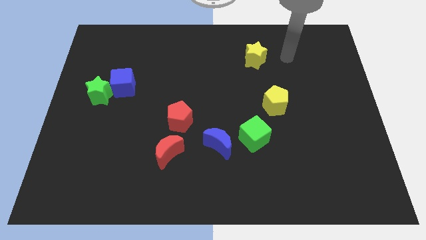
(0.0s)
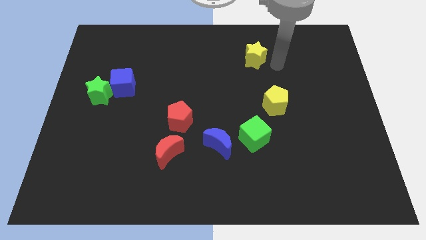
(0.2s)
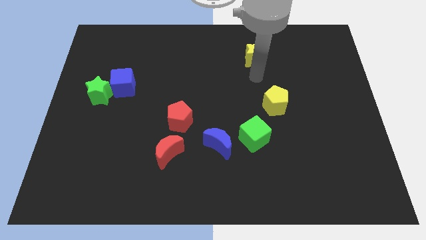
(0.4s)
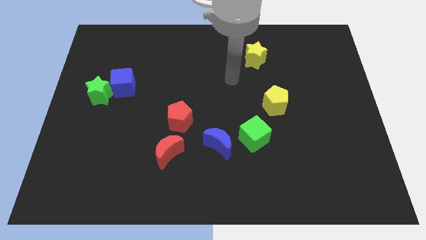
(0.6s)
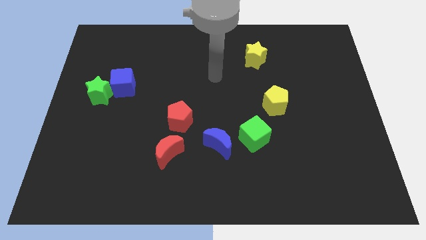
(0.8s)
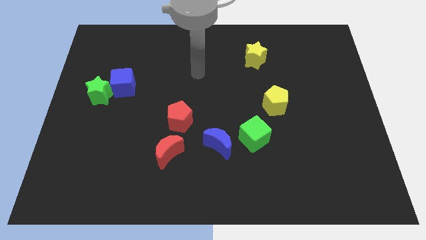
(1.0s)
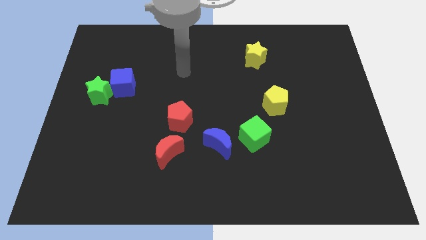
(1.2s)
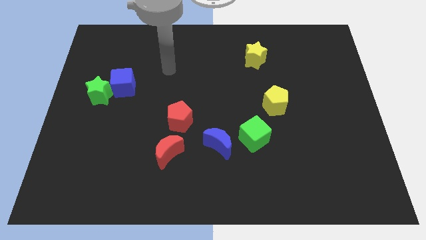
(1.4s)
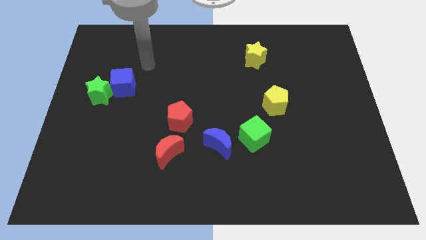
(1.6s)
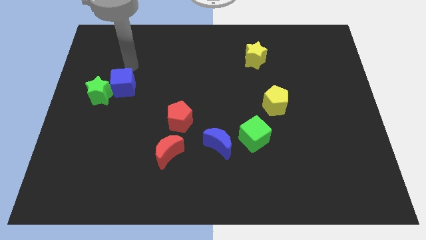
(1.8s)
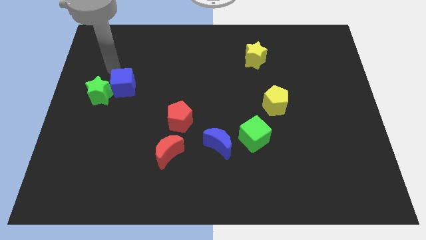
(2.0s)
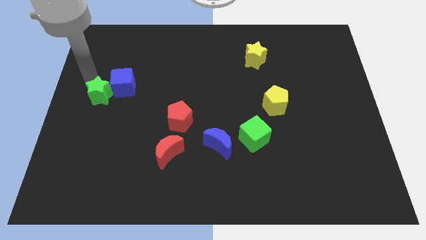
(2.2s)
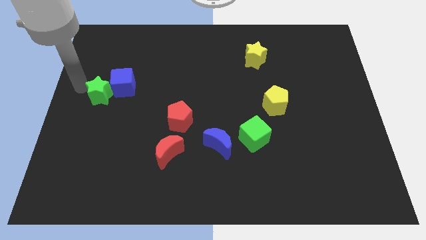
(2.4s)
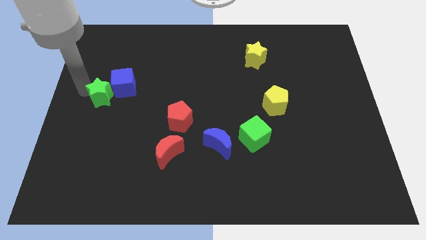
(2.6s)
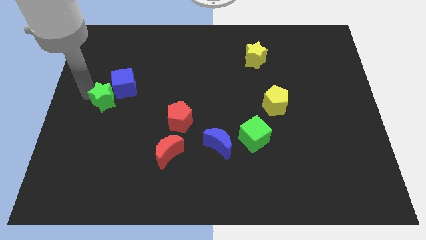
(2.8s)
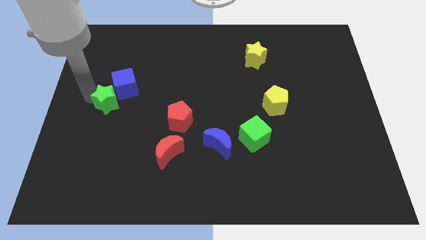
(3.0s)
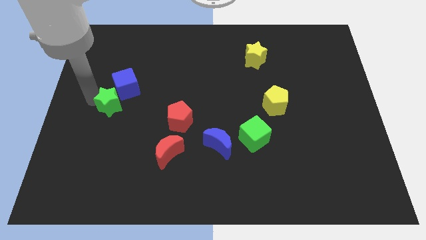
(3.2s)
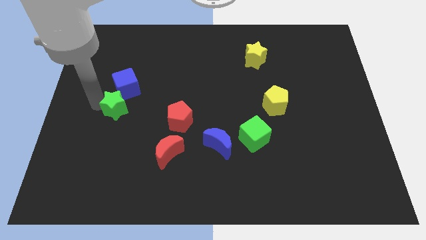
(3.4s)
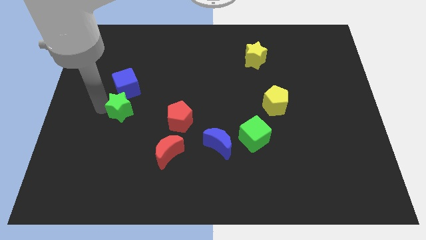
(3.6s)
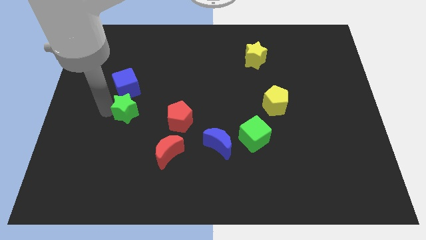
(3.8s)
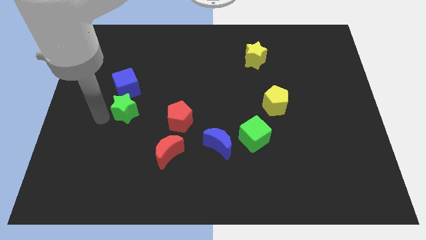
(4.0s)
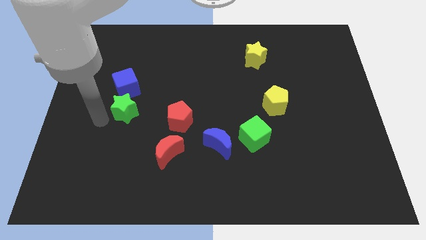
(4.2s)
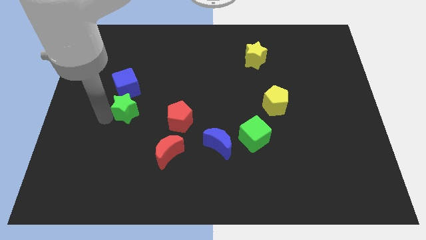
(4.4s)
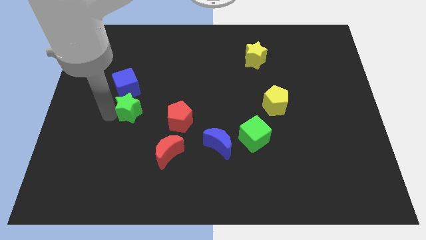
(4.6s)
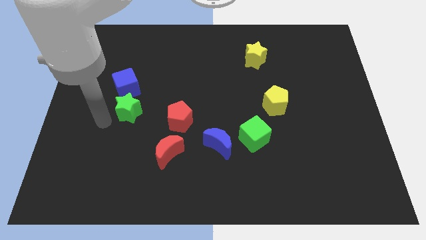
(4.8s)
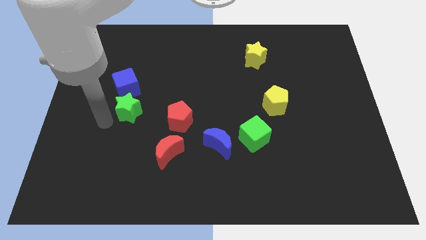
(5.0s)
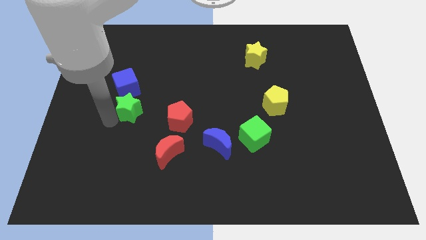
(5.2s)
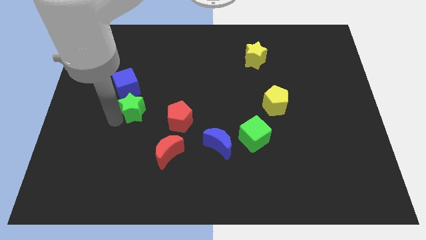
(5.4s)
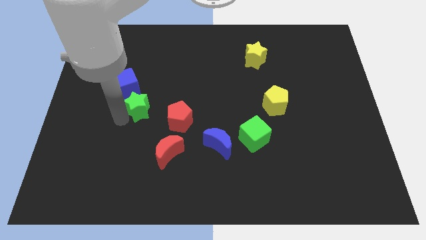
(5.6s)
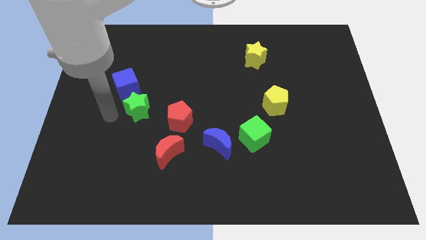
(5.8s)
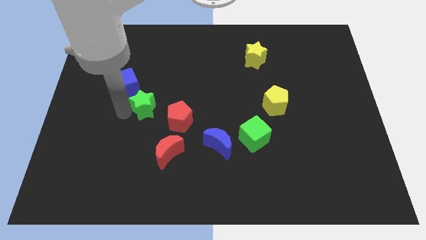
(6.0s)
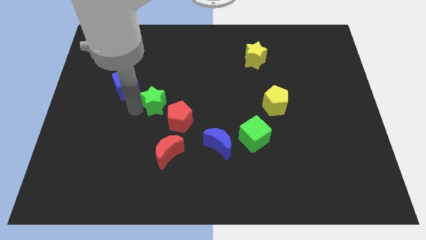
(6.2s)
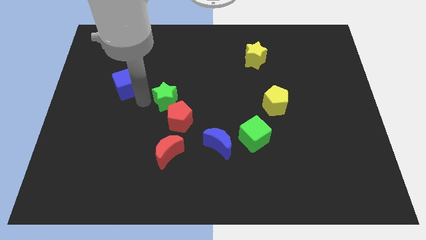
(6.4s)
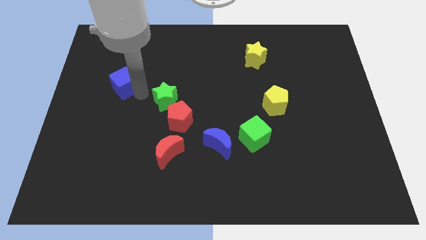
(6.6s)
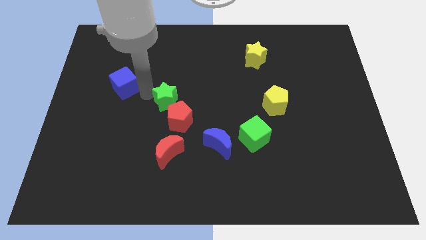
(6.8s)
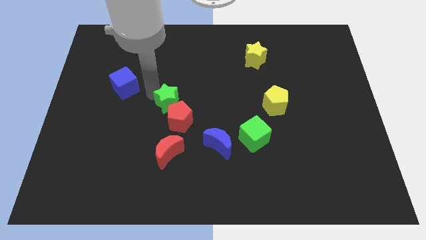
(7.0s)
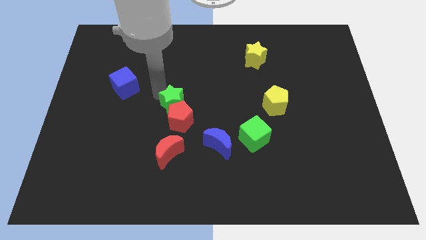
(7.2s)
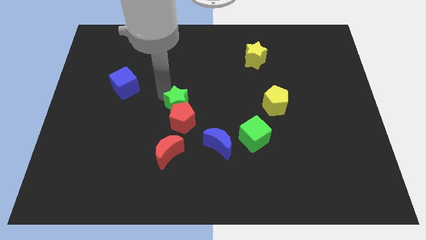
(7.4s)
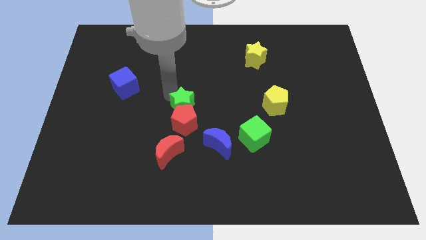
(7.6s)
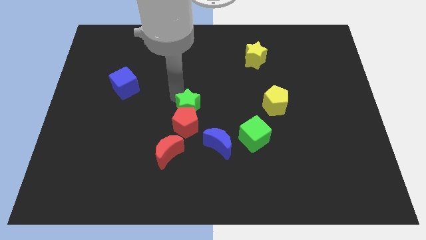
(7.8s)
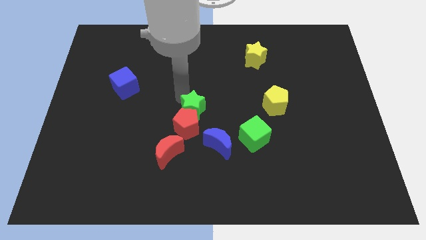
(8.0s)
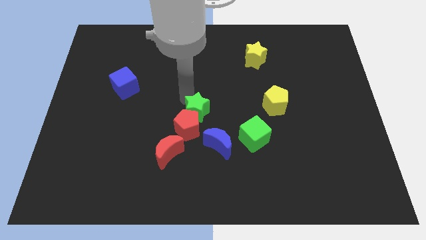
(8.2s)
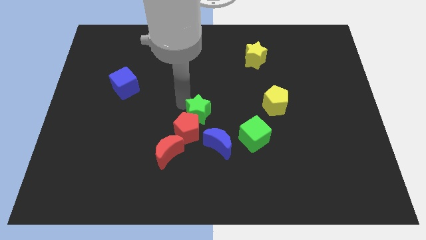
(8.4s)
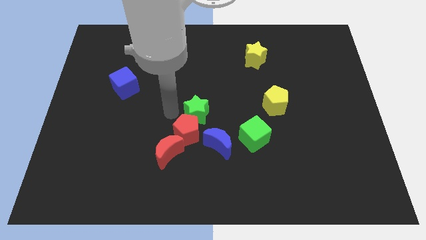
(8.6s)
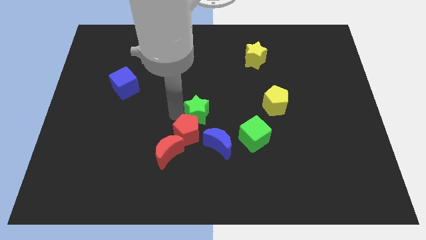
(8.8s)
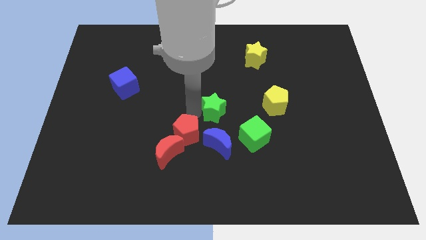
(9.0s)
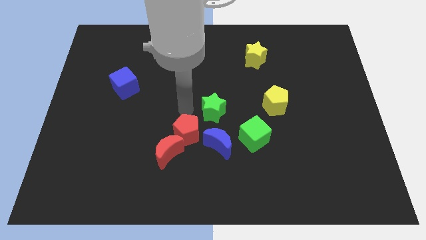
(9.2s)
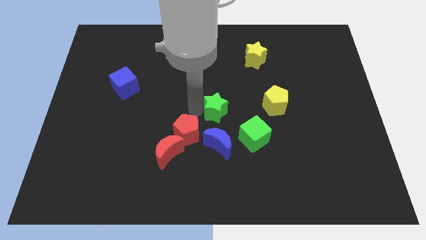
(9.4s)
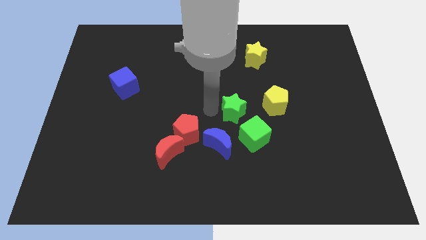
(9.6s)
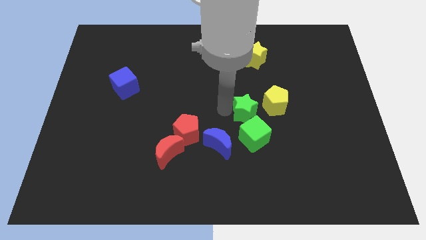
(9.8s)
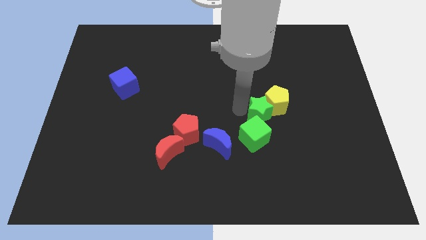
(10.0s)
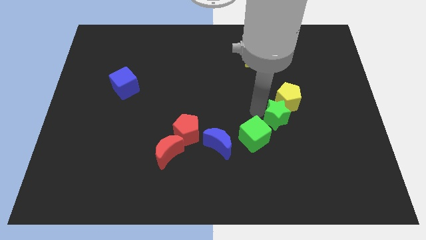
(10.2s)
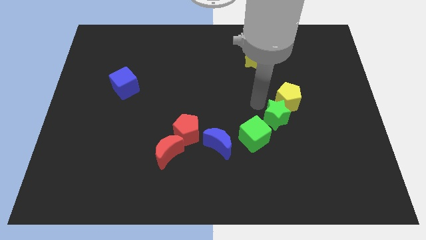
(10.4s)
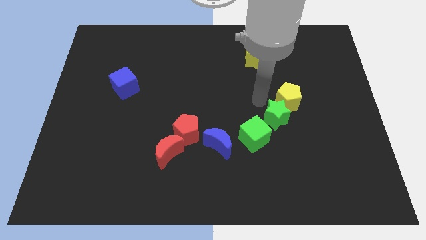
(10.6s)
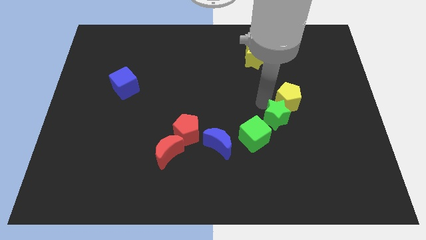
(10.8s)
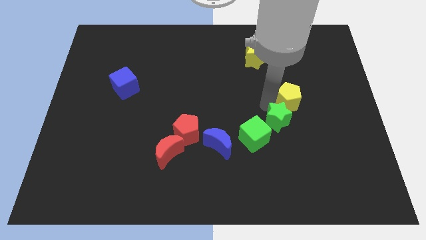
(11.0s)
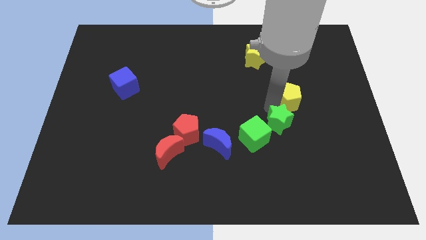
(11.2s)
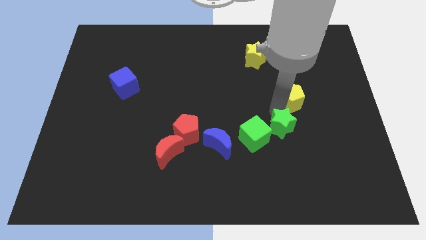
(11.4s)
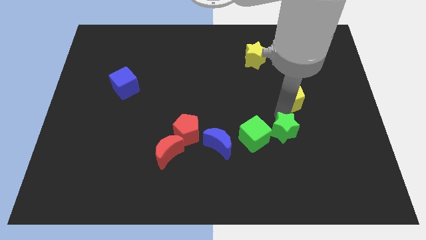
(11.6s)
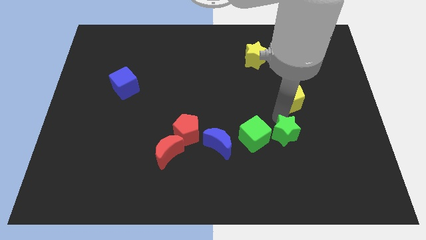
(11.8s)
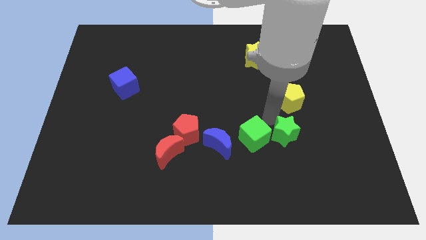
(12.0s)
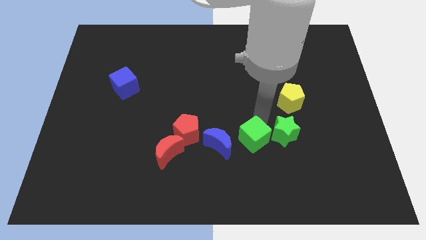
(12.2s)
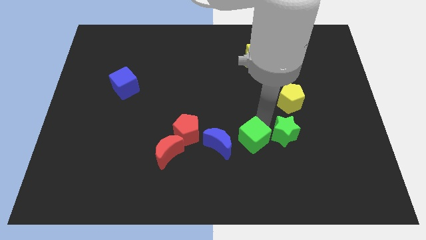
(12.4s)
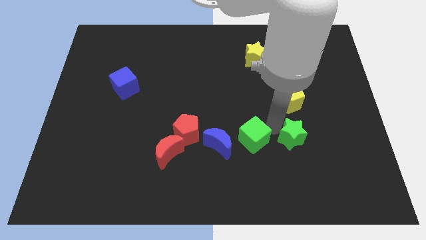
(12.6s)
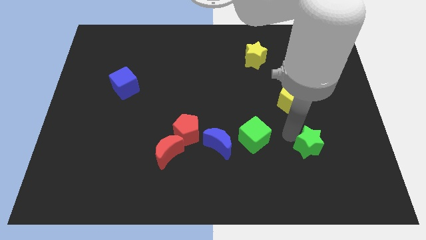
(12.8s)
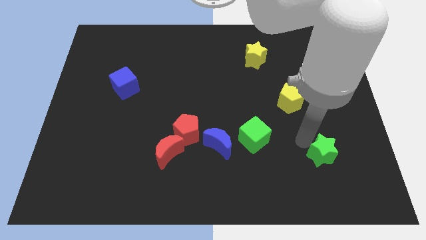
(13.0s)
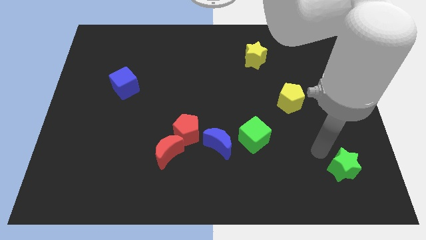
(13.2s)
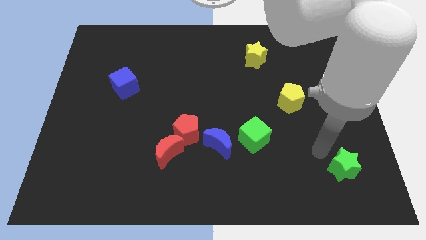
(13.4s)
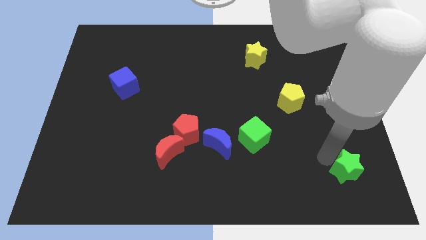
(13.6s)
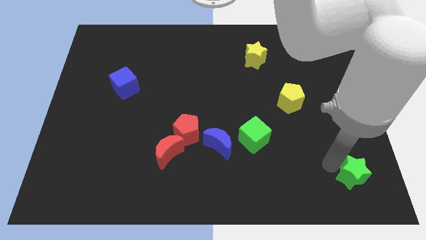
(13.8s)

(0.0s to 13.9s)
push the green star to the bottom right of the board
